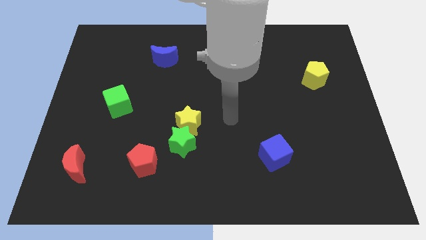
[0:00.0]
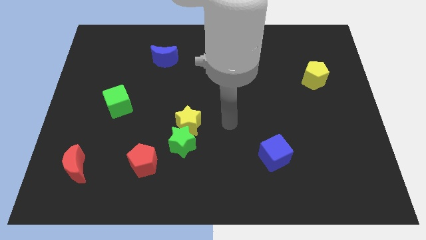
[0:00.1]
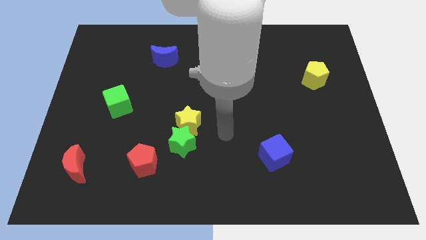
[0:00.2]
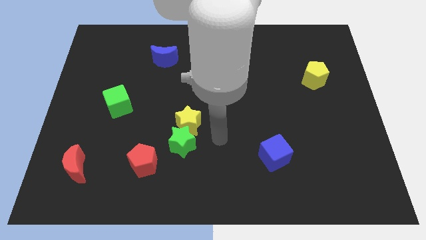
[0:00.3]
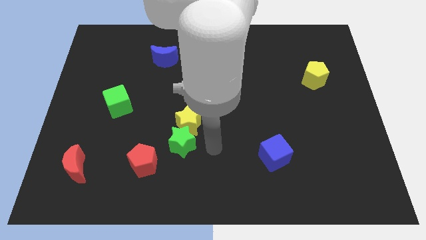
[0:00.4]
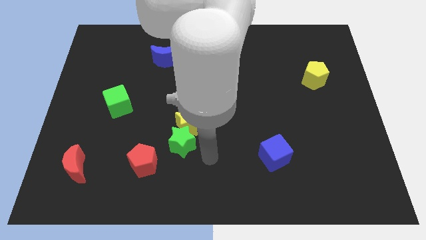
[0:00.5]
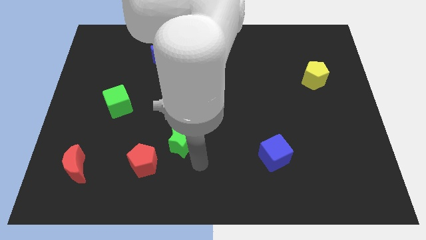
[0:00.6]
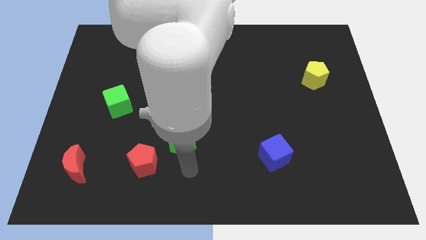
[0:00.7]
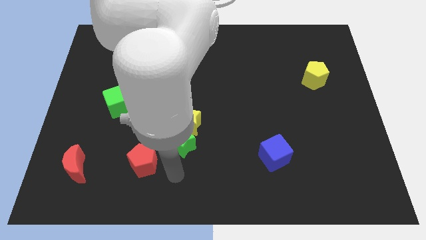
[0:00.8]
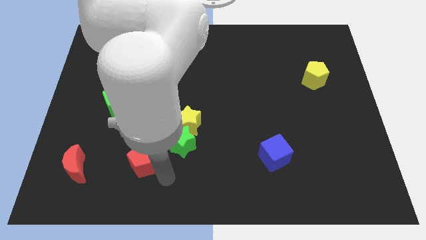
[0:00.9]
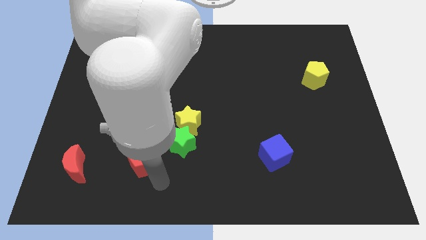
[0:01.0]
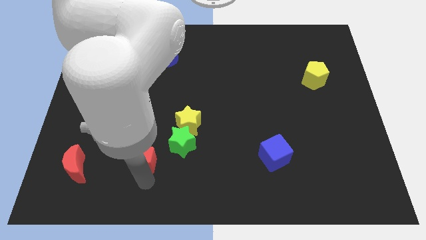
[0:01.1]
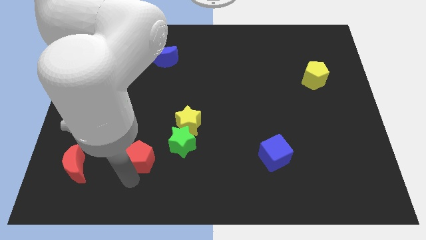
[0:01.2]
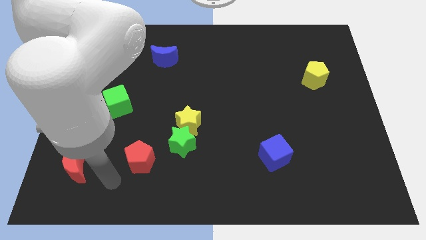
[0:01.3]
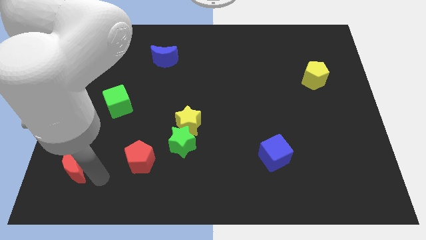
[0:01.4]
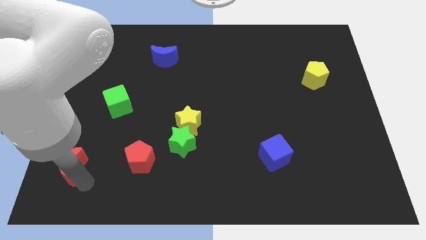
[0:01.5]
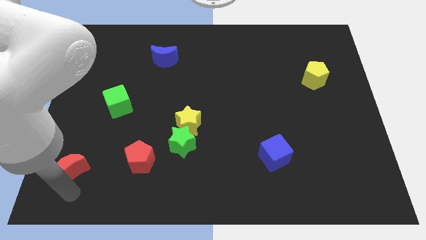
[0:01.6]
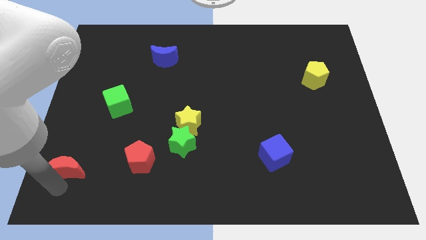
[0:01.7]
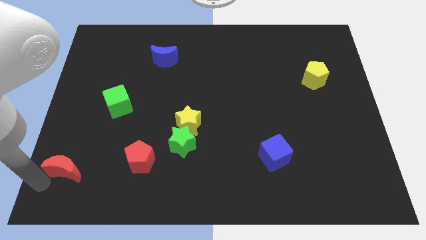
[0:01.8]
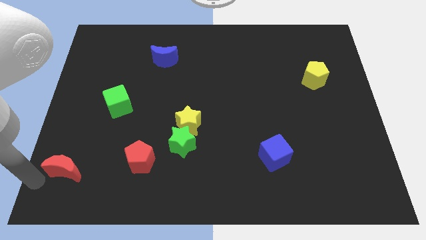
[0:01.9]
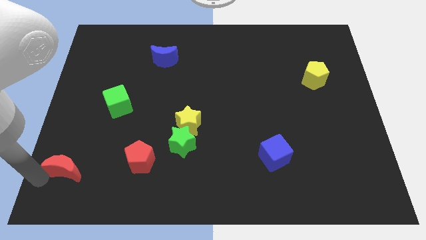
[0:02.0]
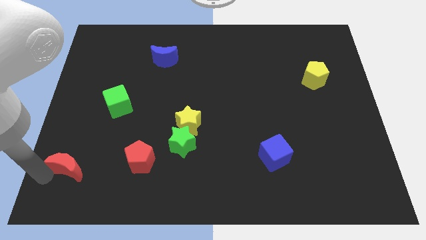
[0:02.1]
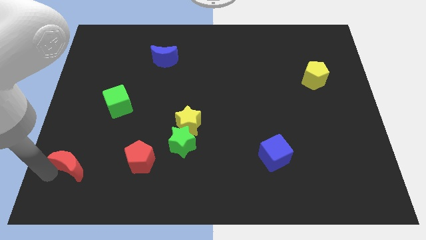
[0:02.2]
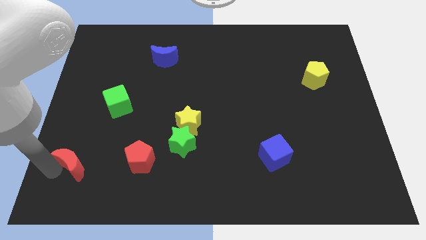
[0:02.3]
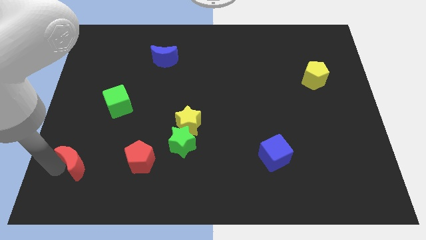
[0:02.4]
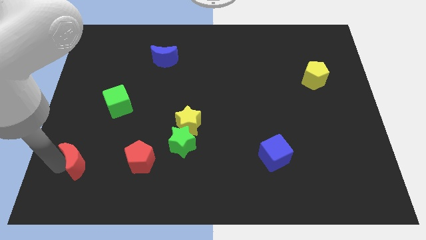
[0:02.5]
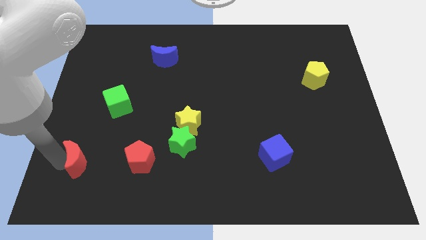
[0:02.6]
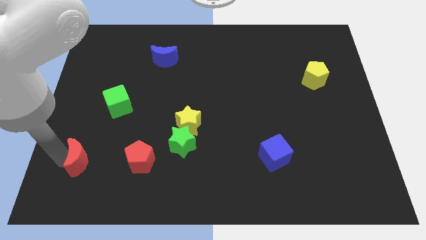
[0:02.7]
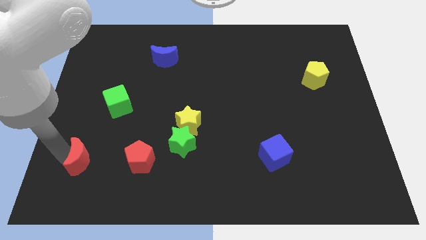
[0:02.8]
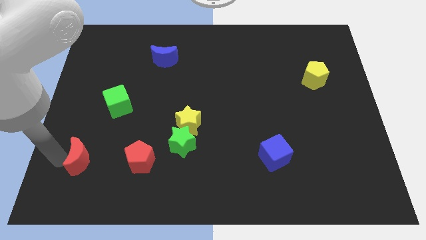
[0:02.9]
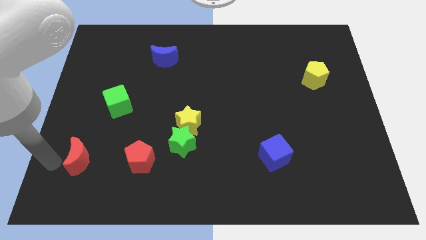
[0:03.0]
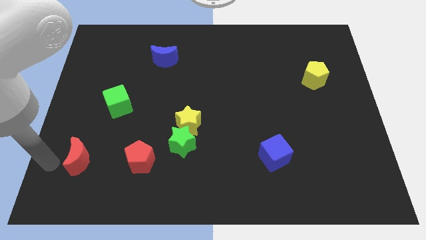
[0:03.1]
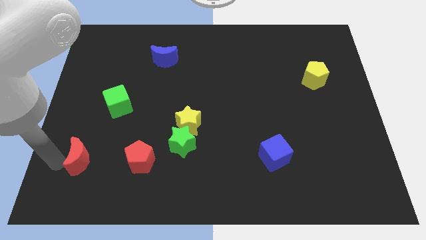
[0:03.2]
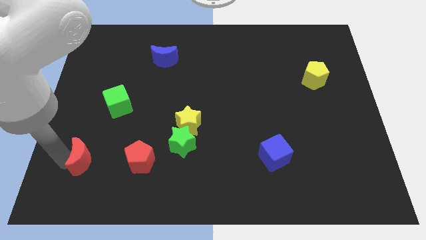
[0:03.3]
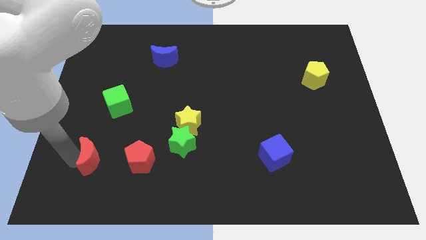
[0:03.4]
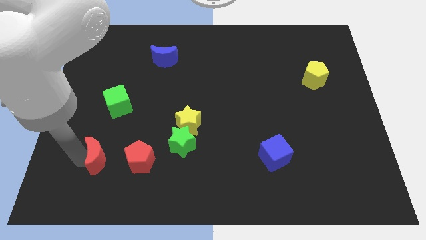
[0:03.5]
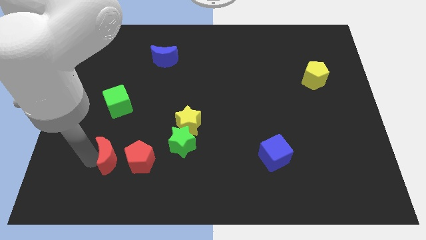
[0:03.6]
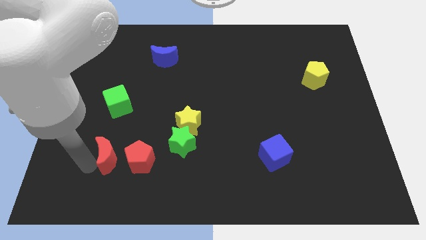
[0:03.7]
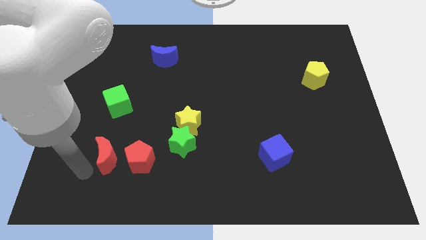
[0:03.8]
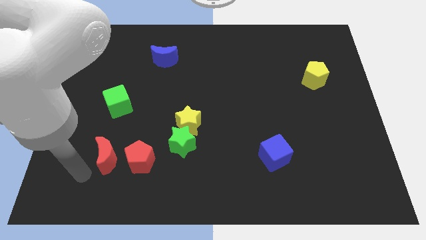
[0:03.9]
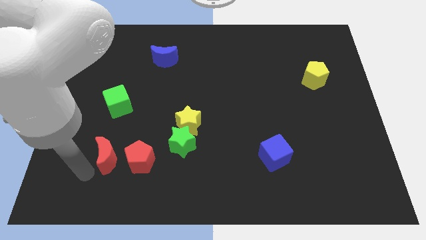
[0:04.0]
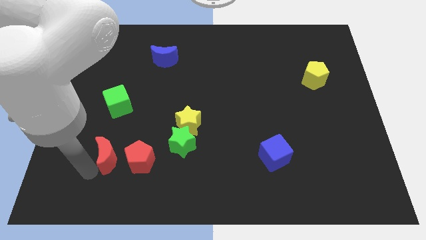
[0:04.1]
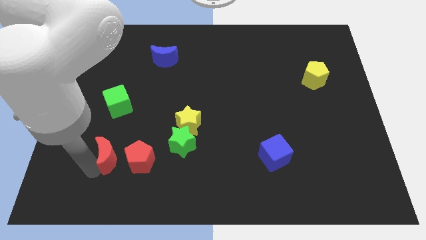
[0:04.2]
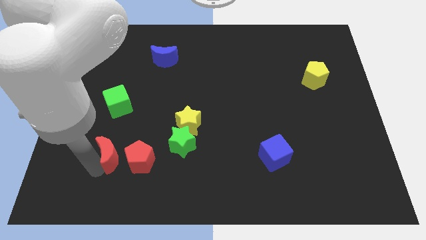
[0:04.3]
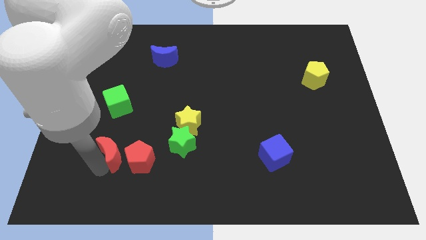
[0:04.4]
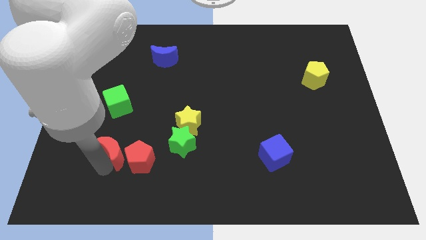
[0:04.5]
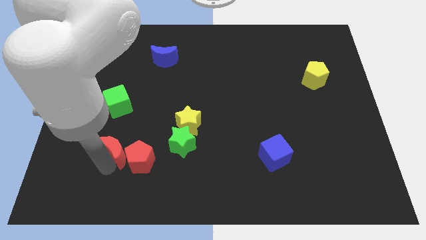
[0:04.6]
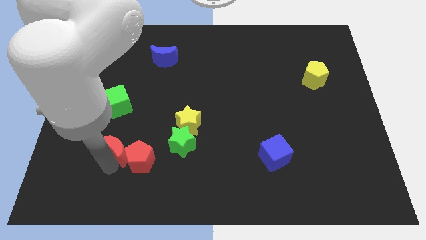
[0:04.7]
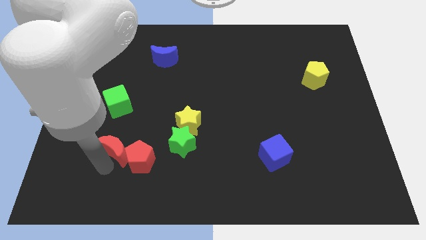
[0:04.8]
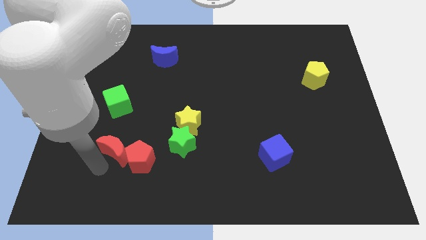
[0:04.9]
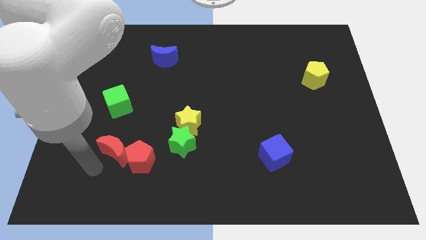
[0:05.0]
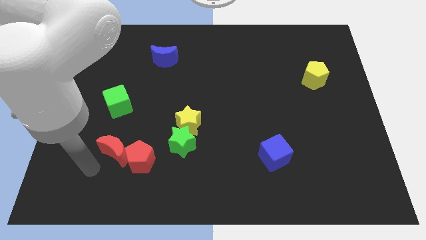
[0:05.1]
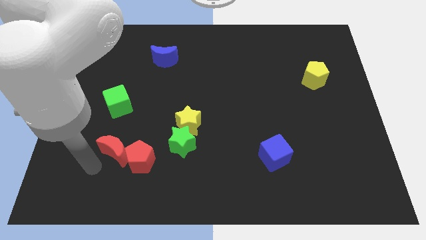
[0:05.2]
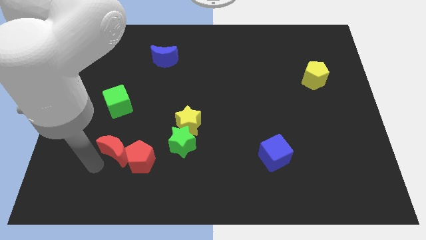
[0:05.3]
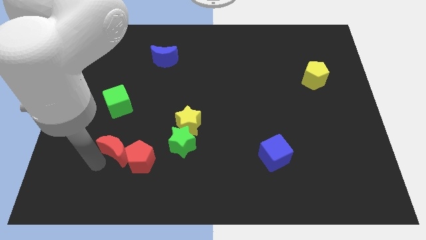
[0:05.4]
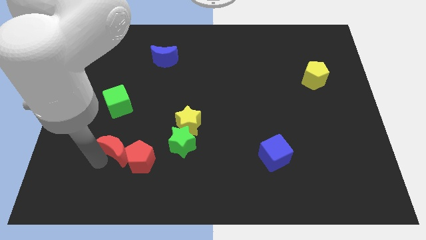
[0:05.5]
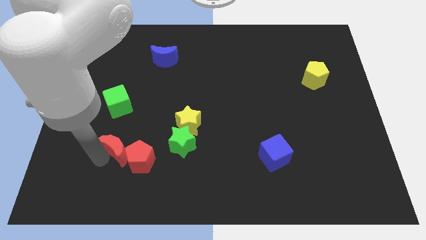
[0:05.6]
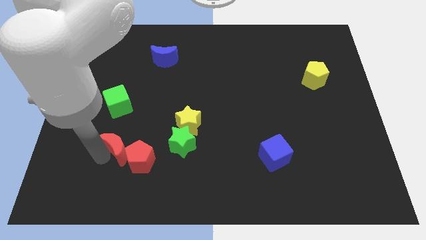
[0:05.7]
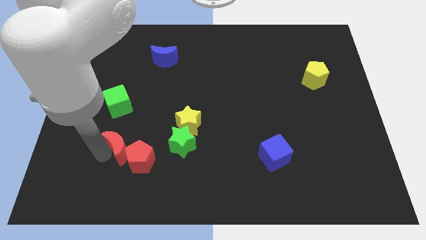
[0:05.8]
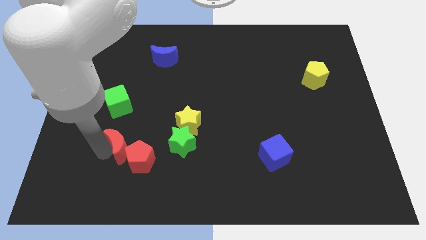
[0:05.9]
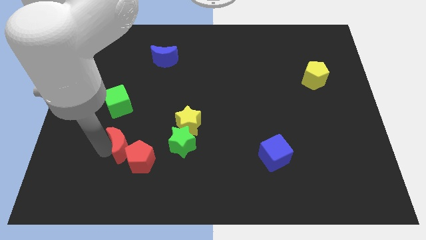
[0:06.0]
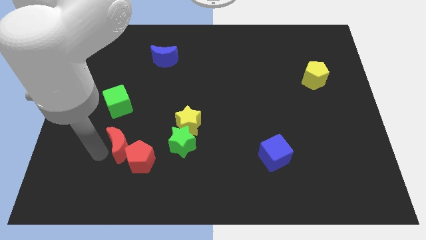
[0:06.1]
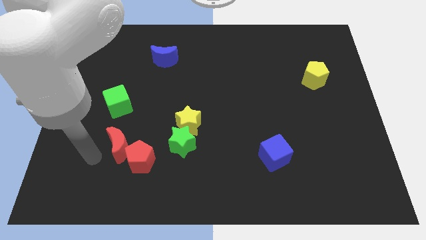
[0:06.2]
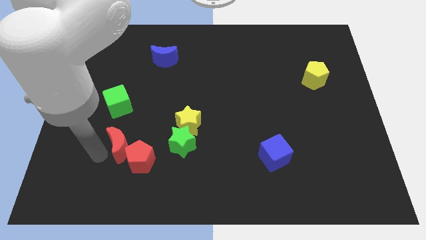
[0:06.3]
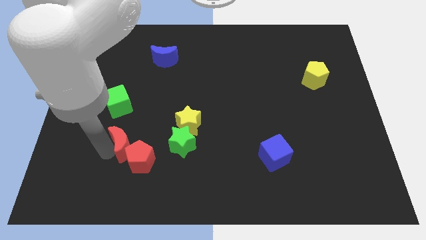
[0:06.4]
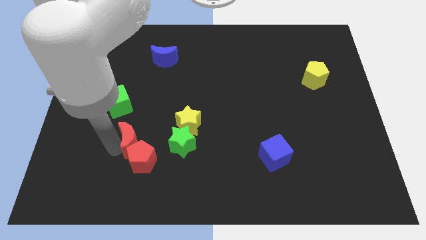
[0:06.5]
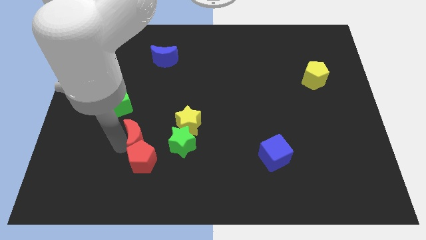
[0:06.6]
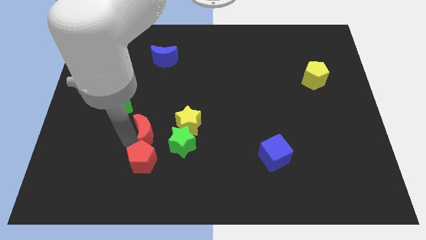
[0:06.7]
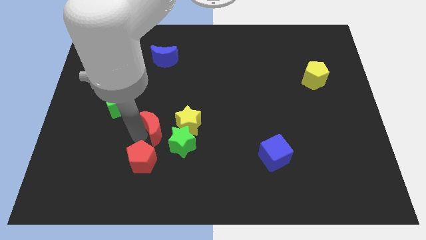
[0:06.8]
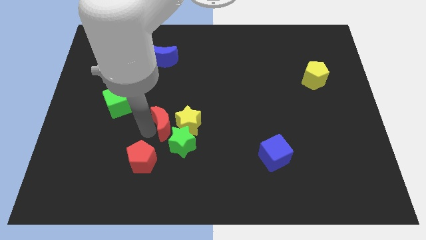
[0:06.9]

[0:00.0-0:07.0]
slide the red moon towards the yellow star
